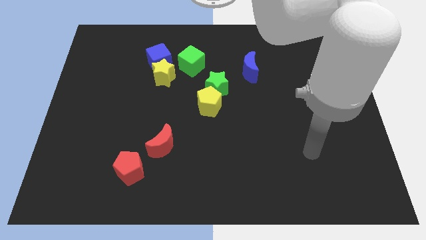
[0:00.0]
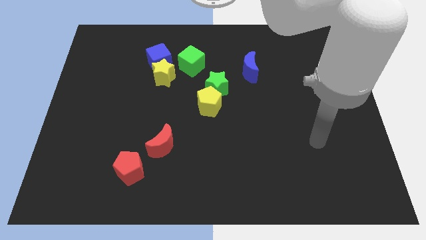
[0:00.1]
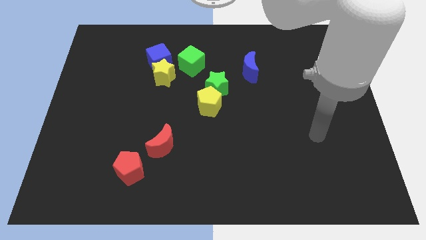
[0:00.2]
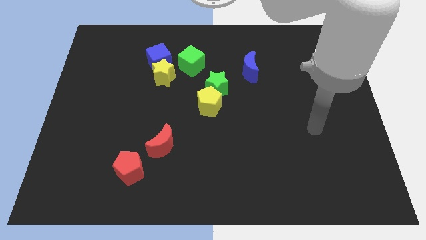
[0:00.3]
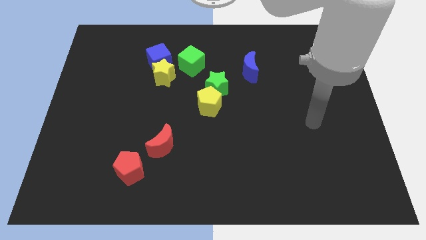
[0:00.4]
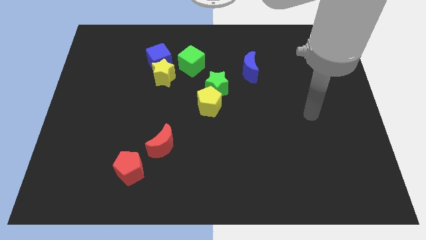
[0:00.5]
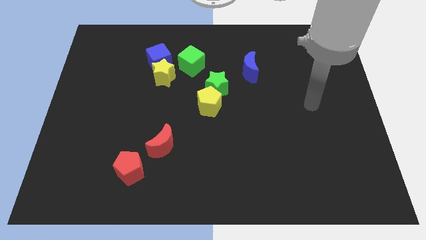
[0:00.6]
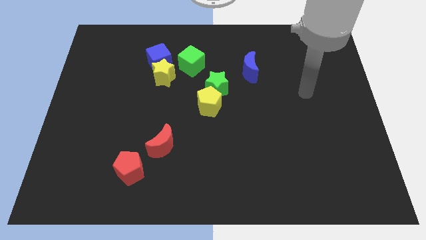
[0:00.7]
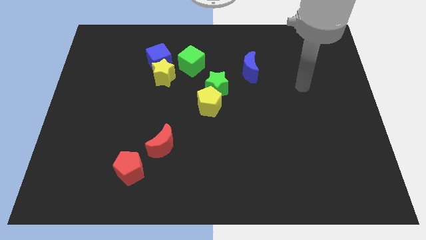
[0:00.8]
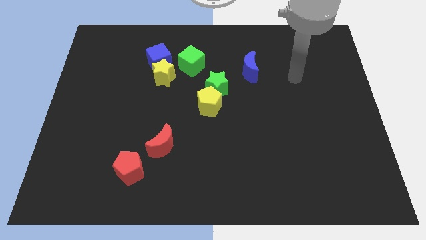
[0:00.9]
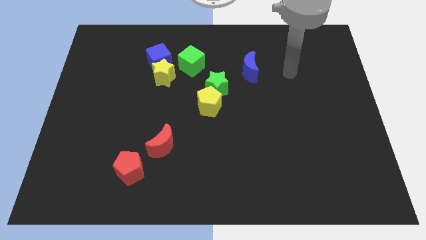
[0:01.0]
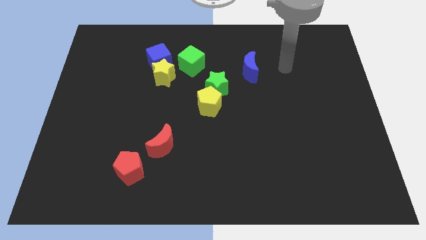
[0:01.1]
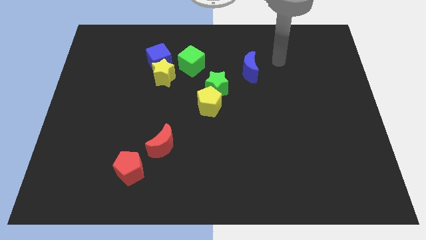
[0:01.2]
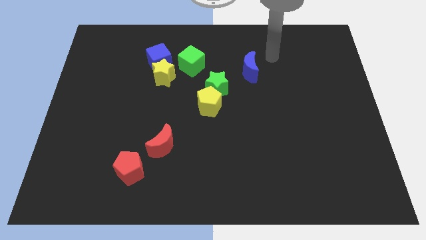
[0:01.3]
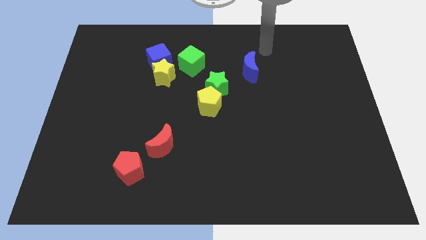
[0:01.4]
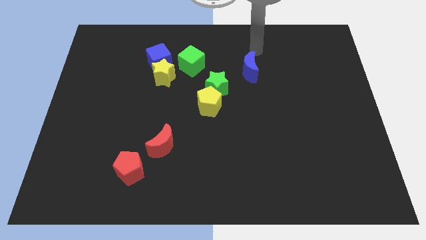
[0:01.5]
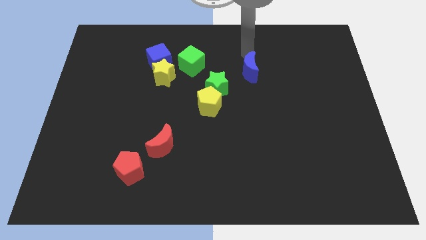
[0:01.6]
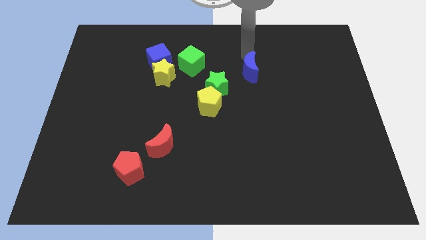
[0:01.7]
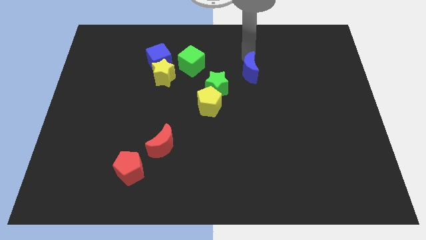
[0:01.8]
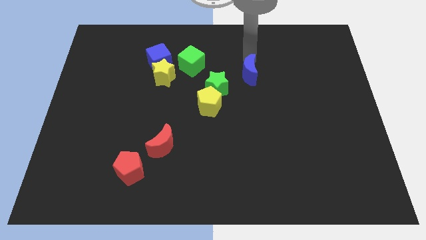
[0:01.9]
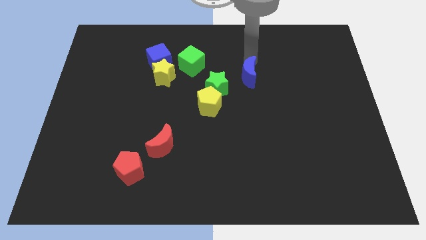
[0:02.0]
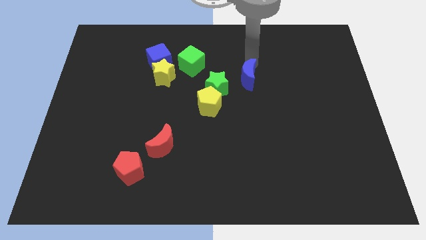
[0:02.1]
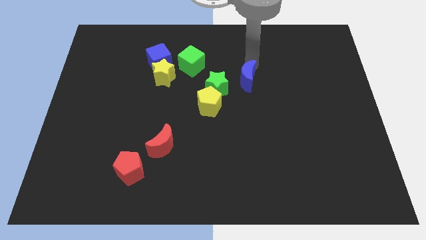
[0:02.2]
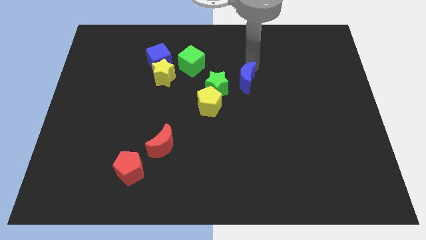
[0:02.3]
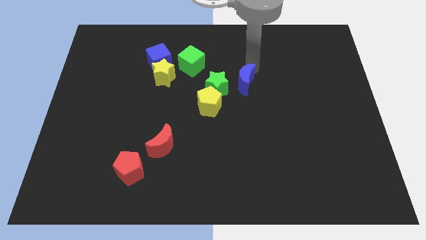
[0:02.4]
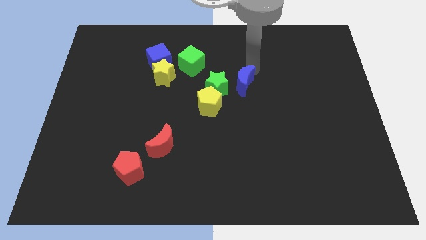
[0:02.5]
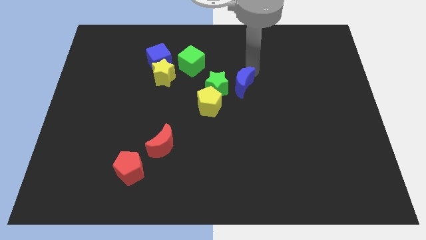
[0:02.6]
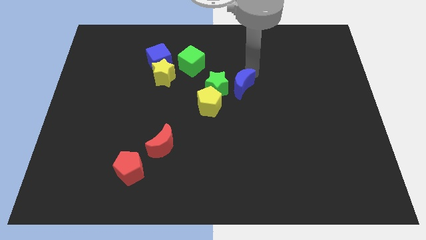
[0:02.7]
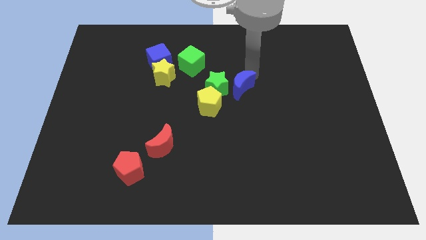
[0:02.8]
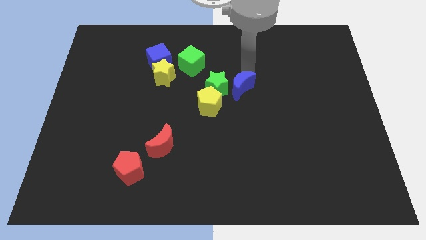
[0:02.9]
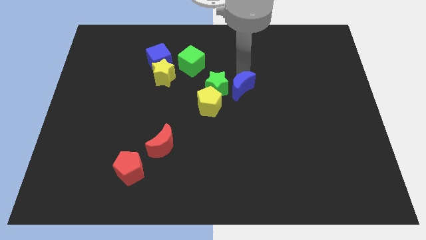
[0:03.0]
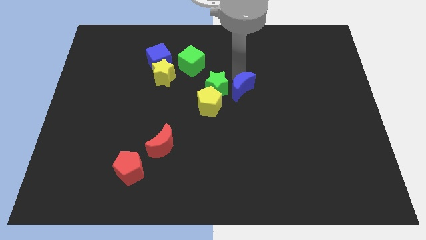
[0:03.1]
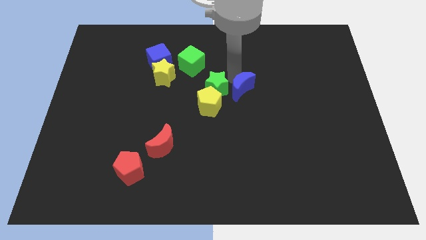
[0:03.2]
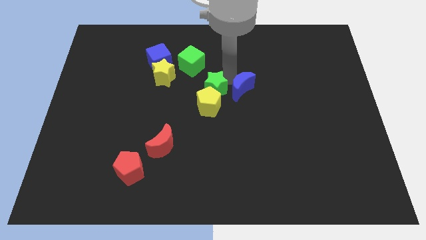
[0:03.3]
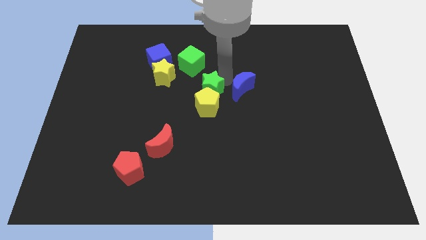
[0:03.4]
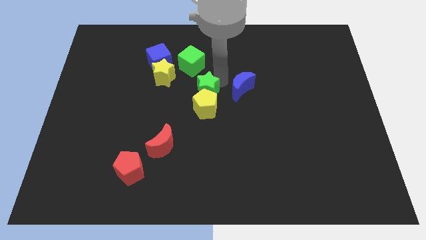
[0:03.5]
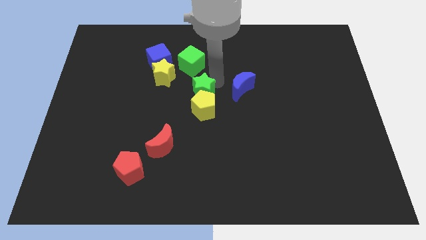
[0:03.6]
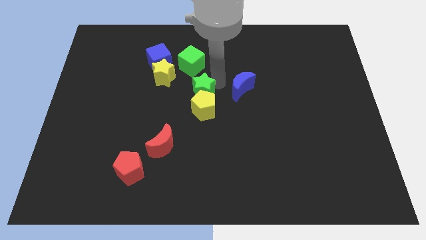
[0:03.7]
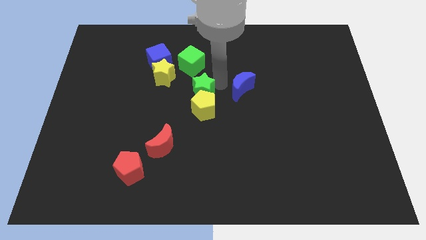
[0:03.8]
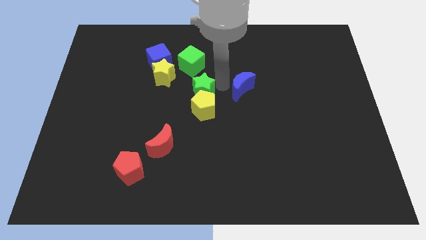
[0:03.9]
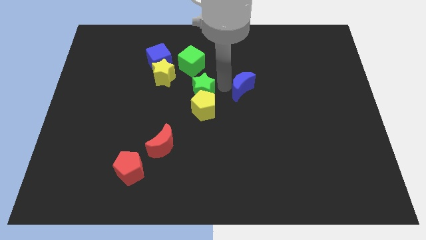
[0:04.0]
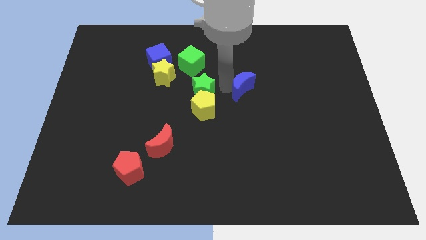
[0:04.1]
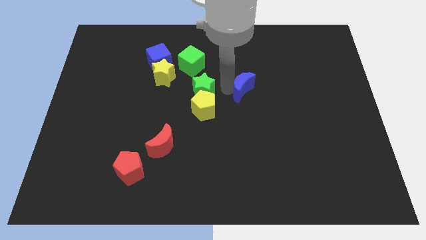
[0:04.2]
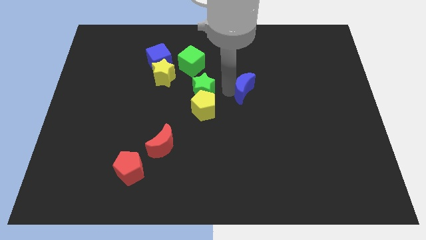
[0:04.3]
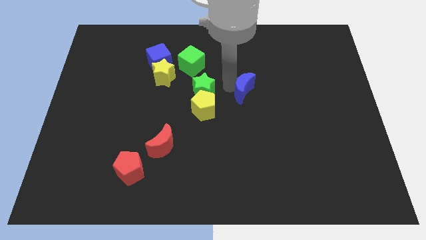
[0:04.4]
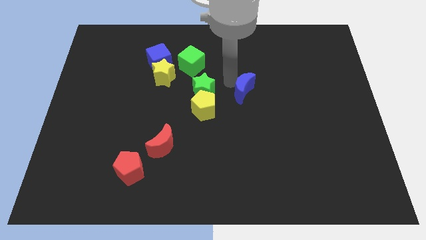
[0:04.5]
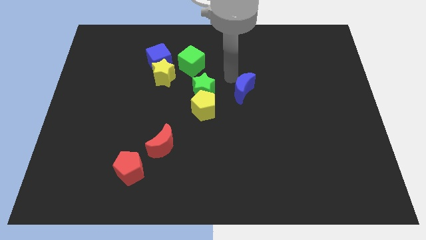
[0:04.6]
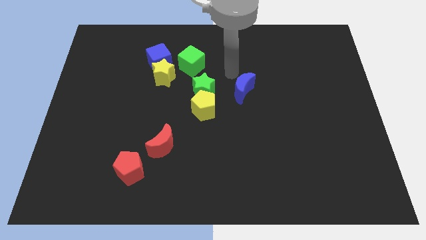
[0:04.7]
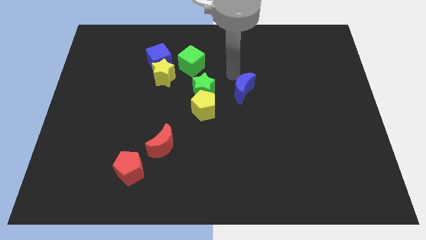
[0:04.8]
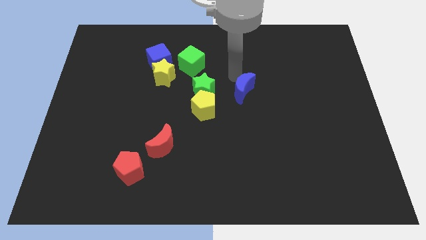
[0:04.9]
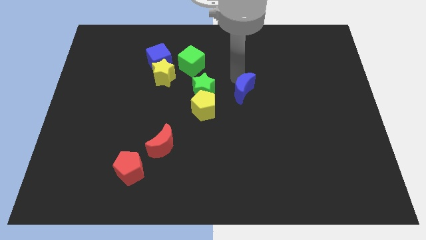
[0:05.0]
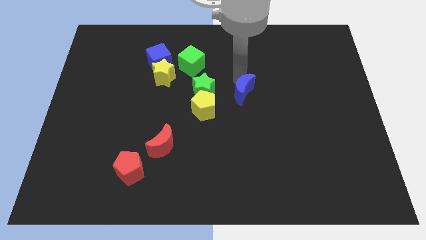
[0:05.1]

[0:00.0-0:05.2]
push the blue moon down a little

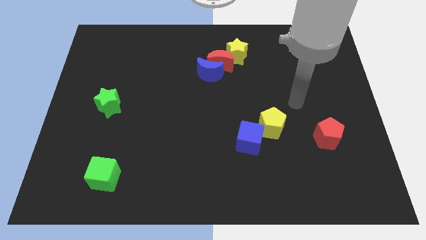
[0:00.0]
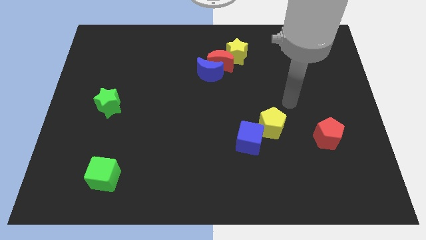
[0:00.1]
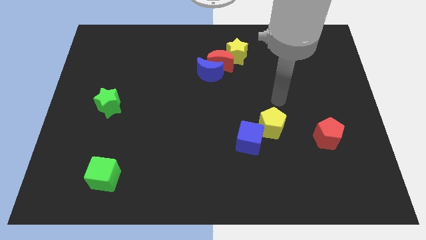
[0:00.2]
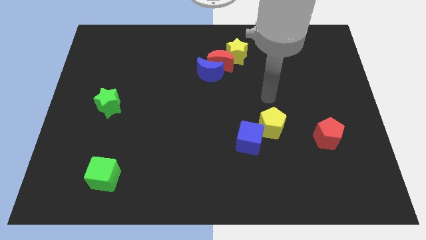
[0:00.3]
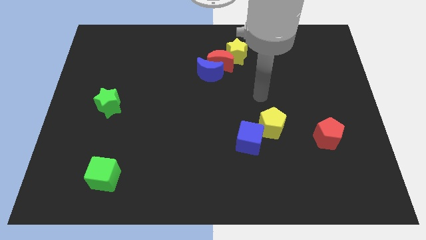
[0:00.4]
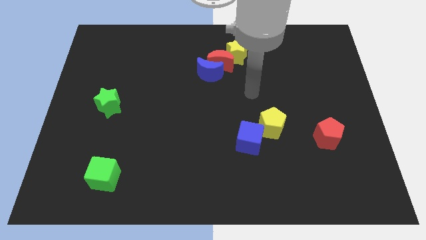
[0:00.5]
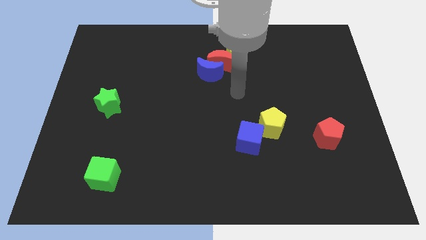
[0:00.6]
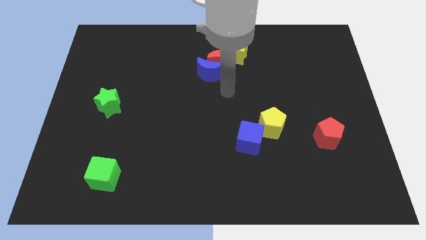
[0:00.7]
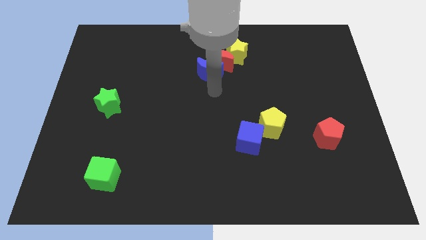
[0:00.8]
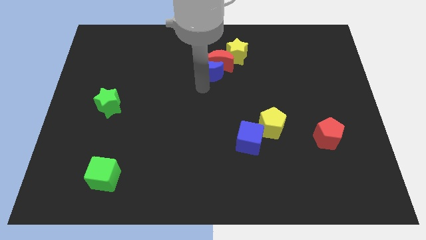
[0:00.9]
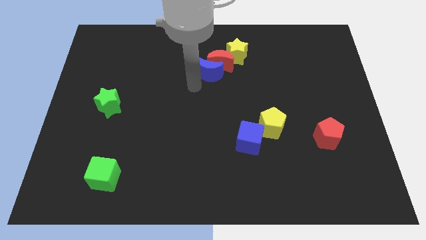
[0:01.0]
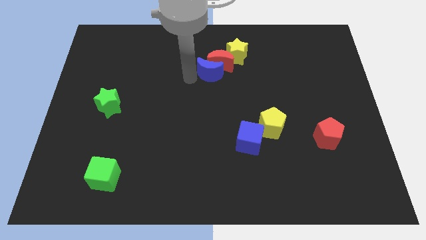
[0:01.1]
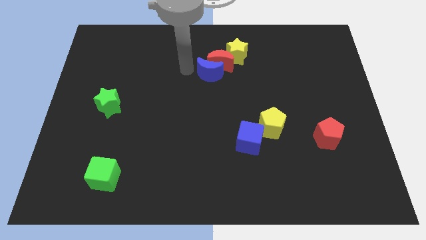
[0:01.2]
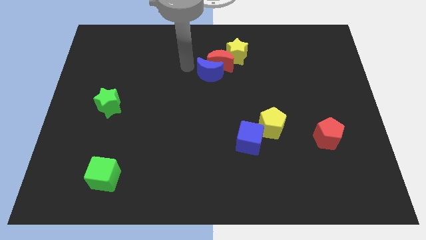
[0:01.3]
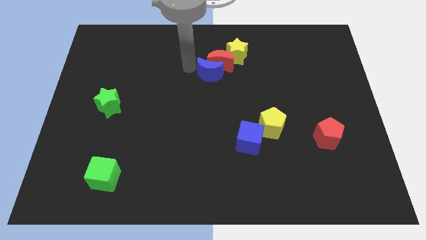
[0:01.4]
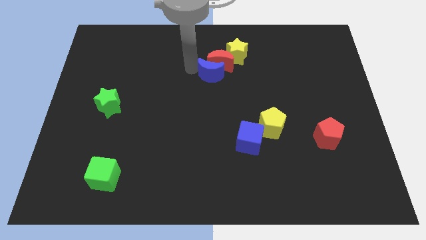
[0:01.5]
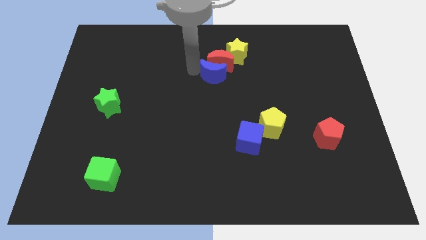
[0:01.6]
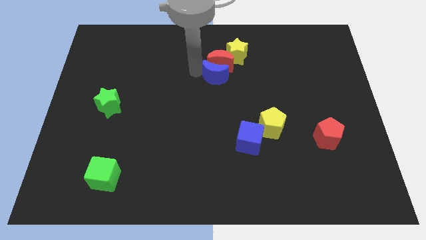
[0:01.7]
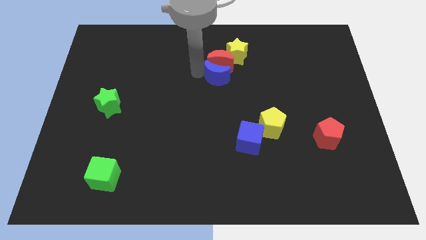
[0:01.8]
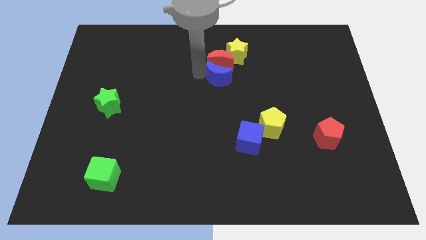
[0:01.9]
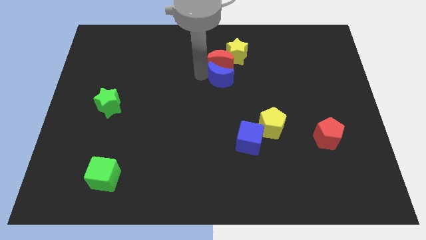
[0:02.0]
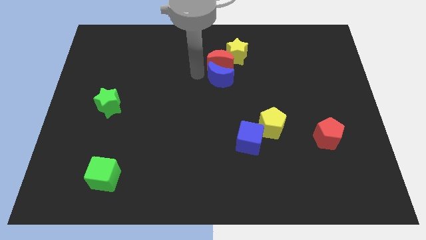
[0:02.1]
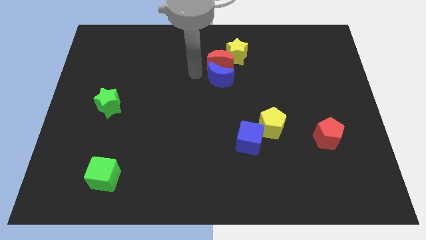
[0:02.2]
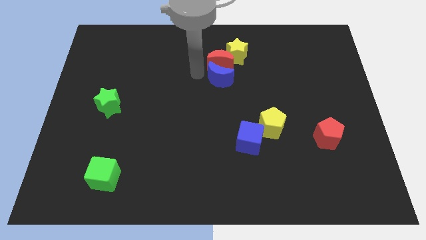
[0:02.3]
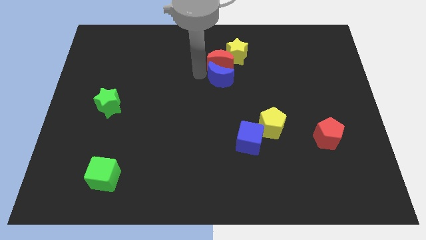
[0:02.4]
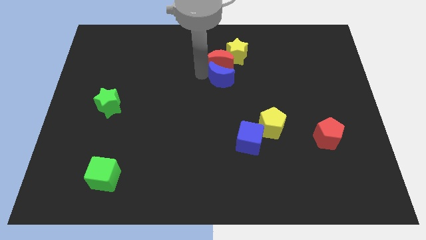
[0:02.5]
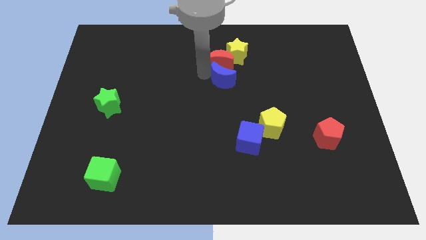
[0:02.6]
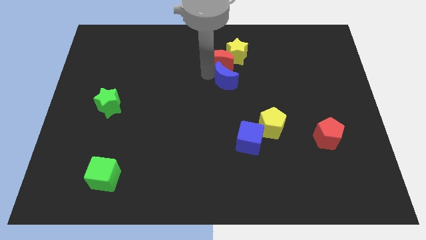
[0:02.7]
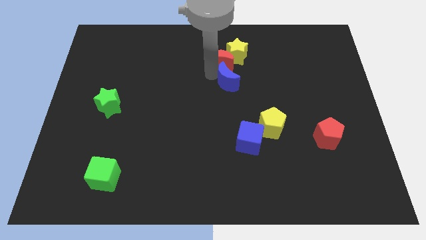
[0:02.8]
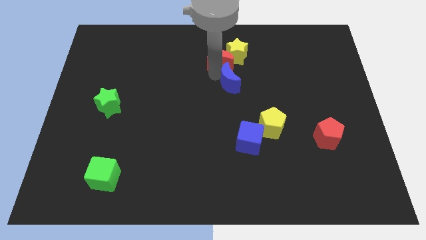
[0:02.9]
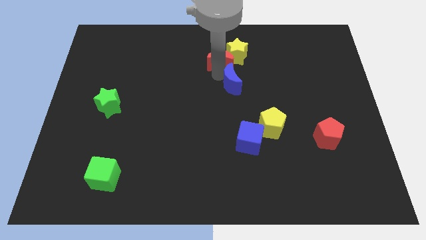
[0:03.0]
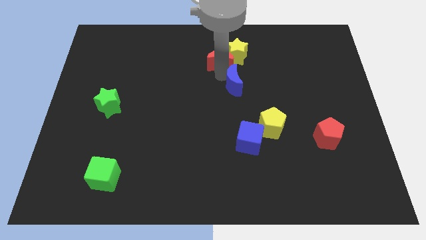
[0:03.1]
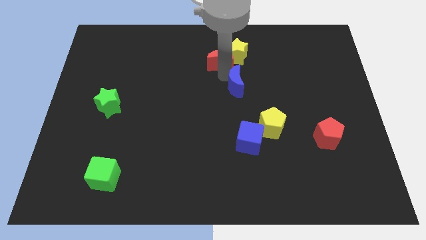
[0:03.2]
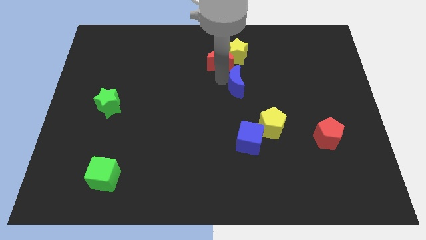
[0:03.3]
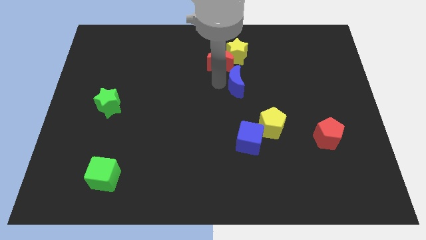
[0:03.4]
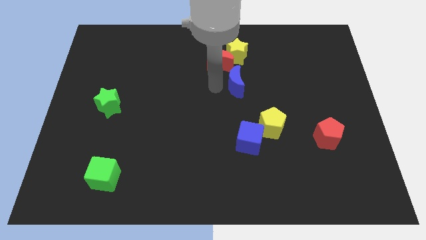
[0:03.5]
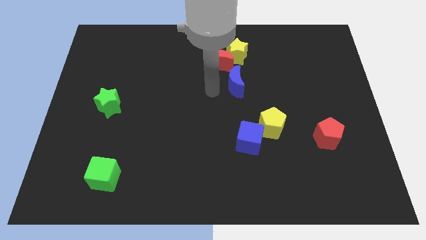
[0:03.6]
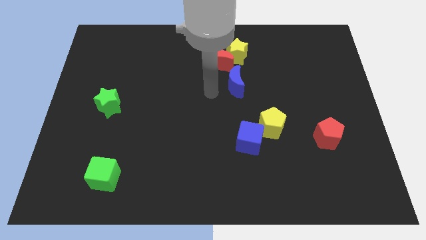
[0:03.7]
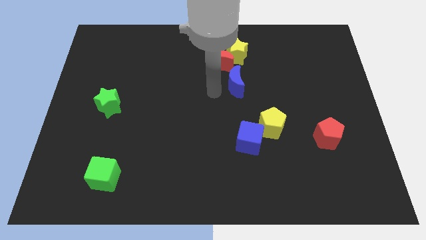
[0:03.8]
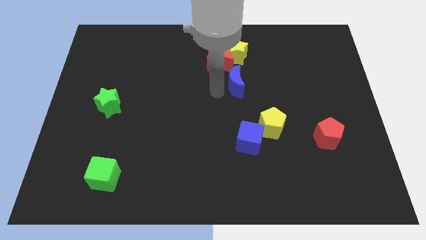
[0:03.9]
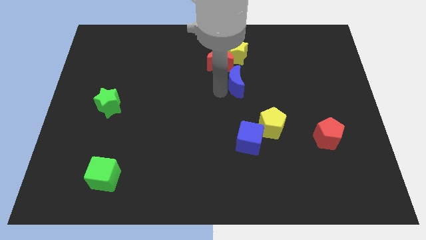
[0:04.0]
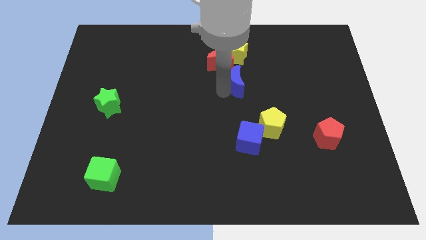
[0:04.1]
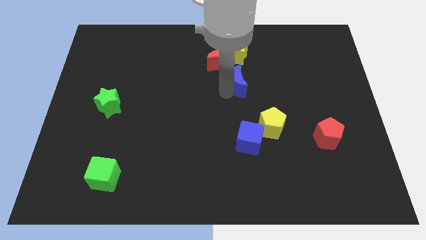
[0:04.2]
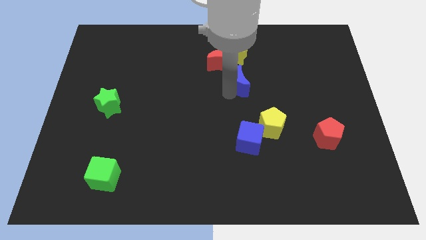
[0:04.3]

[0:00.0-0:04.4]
slide the blue moon right a little bit
